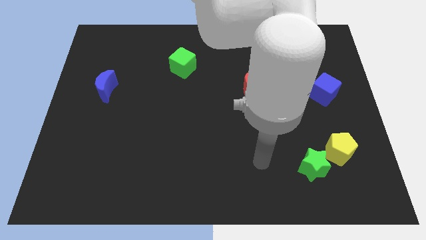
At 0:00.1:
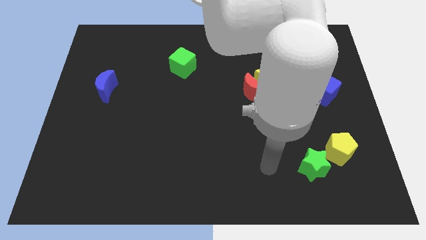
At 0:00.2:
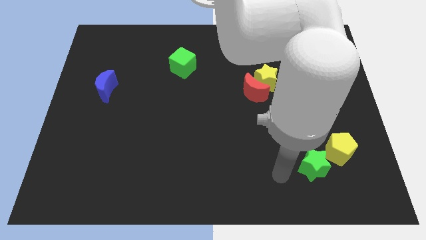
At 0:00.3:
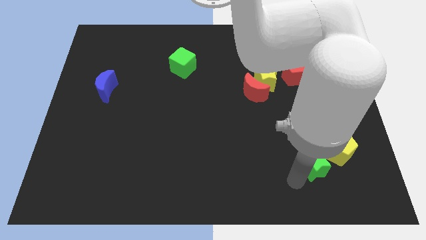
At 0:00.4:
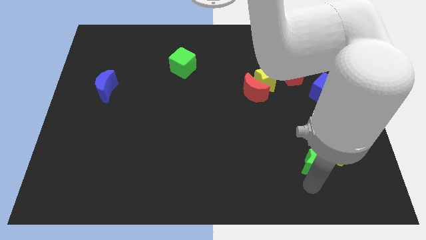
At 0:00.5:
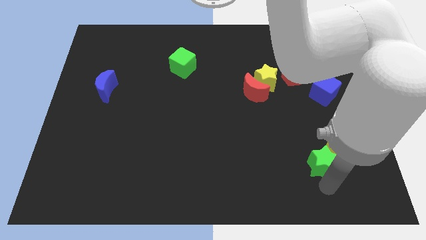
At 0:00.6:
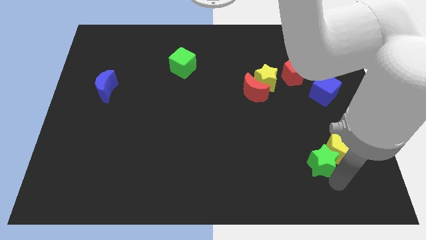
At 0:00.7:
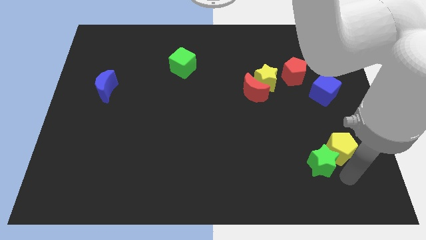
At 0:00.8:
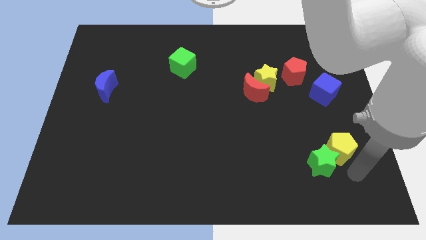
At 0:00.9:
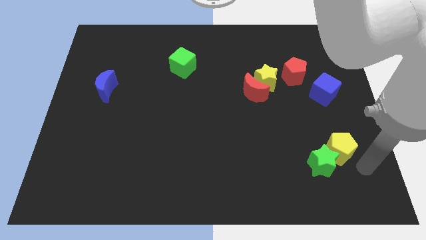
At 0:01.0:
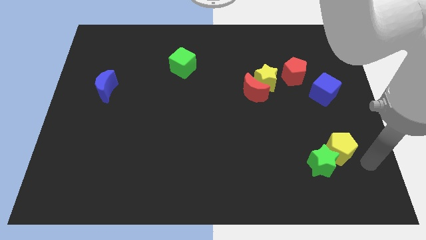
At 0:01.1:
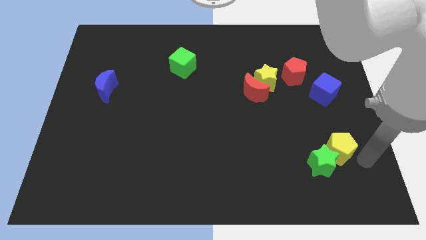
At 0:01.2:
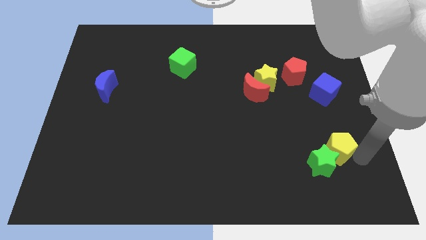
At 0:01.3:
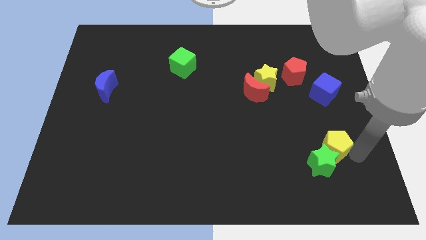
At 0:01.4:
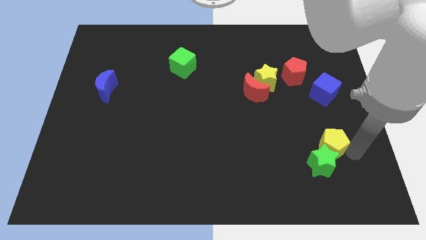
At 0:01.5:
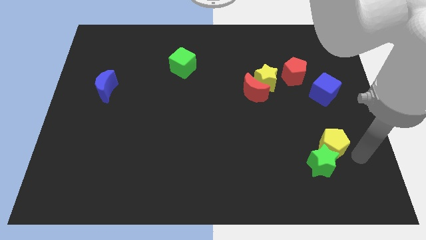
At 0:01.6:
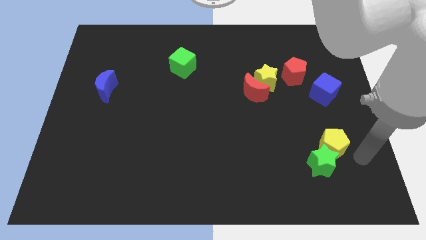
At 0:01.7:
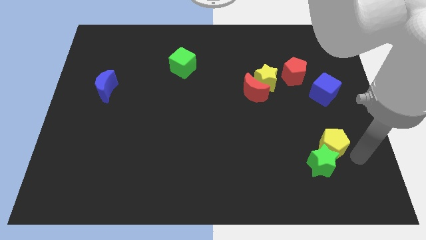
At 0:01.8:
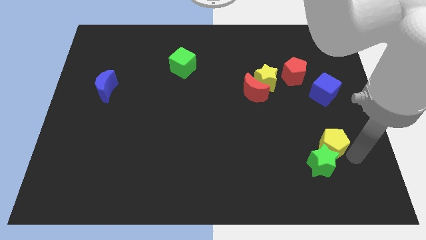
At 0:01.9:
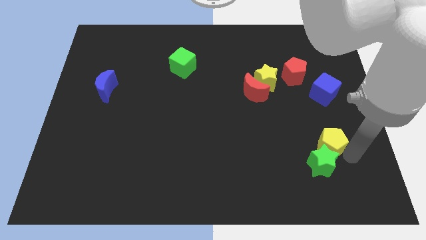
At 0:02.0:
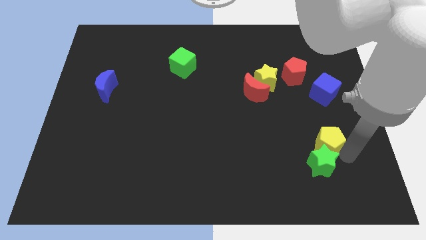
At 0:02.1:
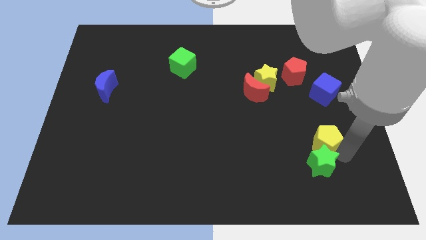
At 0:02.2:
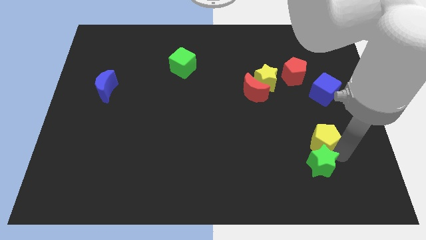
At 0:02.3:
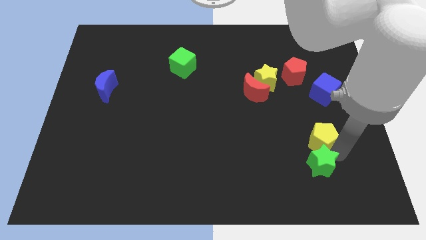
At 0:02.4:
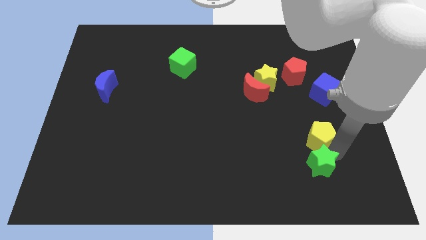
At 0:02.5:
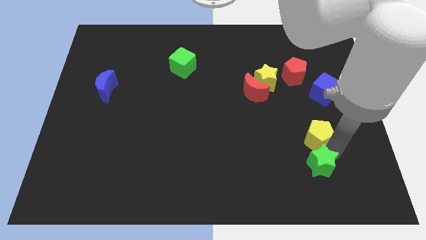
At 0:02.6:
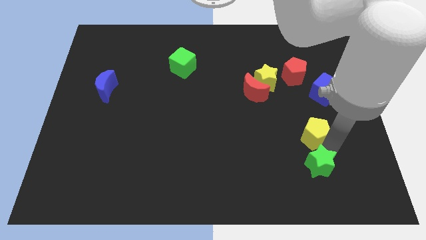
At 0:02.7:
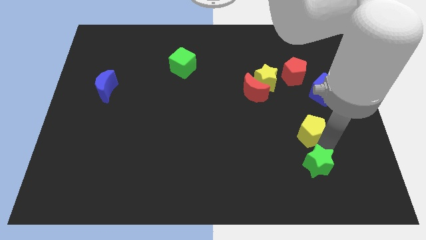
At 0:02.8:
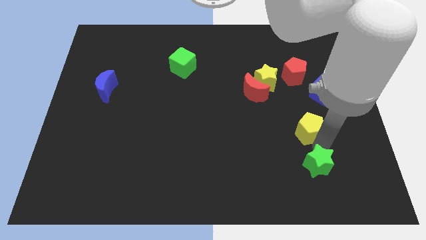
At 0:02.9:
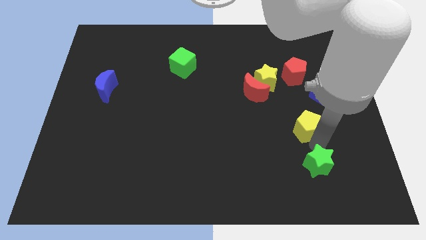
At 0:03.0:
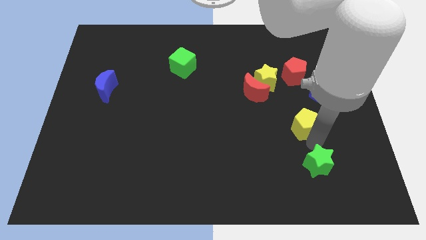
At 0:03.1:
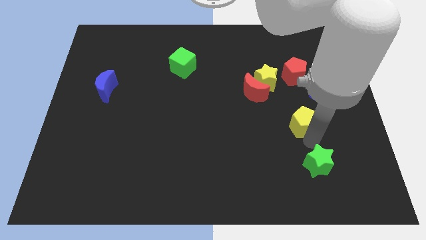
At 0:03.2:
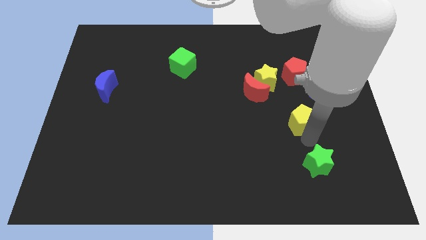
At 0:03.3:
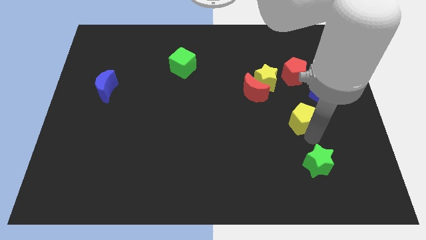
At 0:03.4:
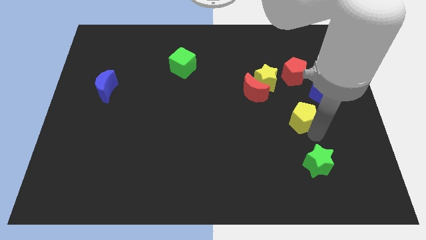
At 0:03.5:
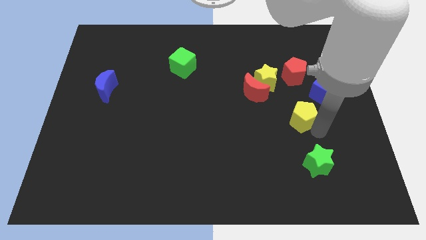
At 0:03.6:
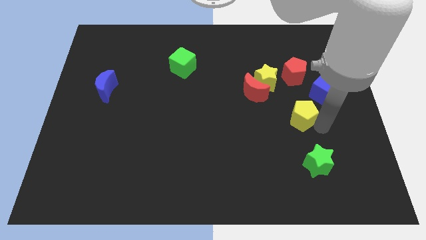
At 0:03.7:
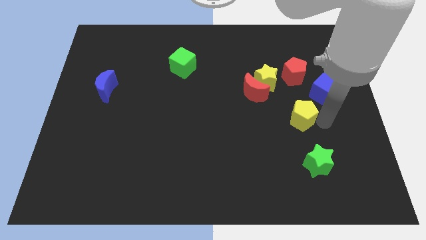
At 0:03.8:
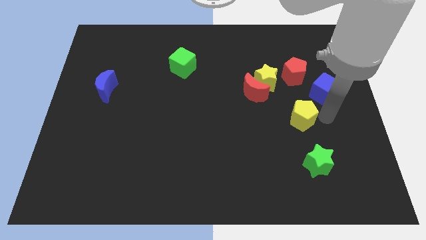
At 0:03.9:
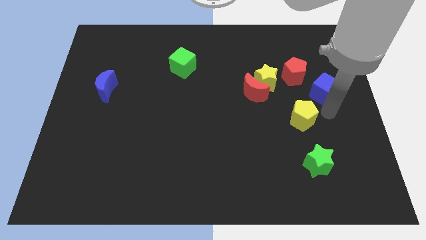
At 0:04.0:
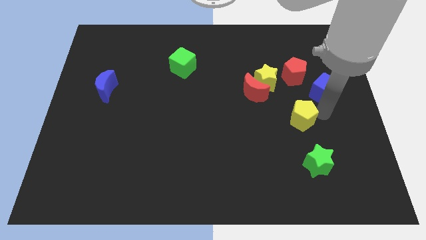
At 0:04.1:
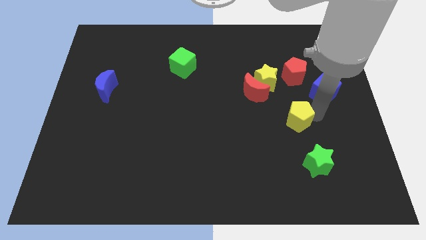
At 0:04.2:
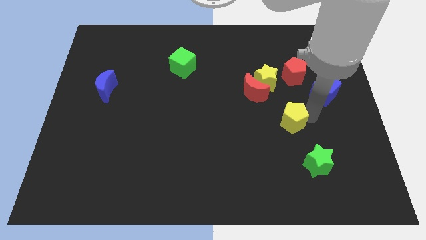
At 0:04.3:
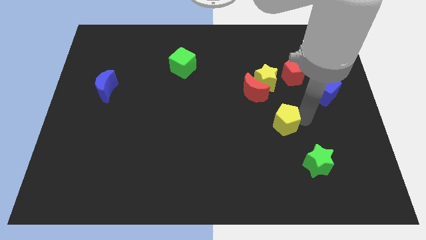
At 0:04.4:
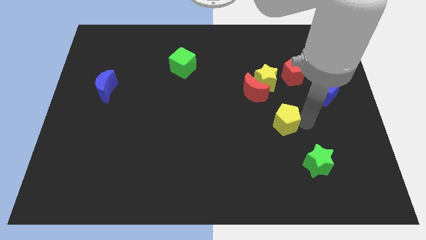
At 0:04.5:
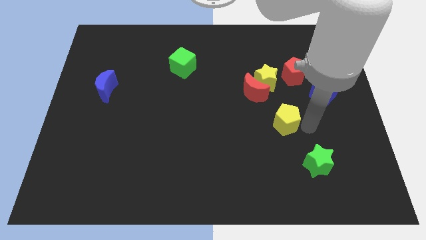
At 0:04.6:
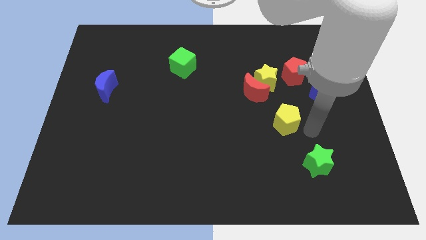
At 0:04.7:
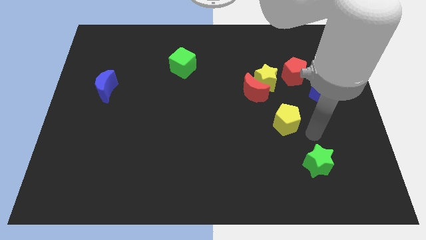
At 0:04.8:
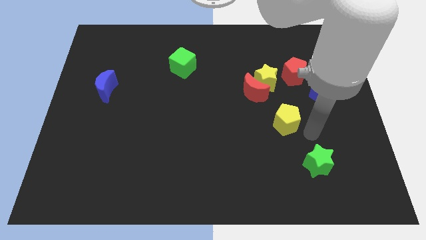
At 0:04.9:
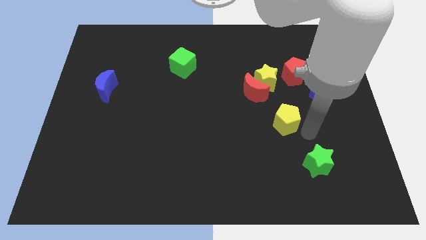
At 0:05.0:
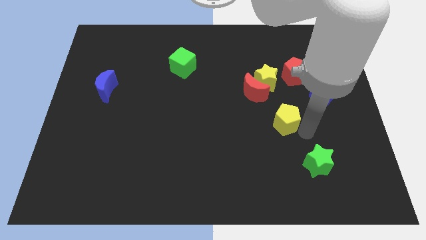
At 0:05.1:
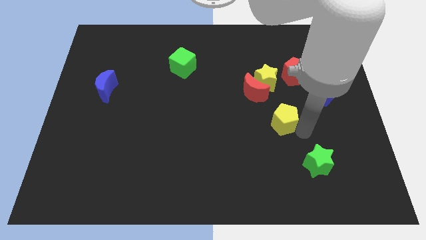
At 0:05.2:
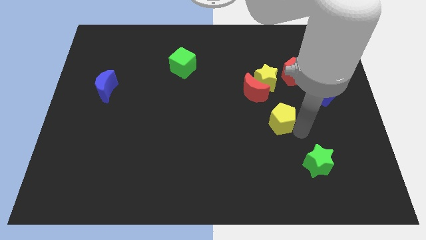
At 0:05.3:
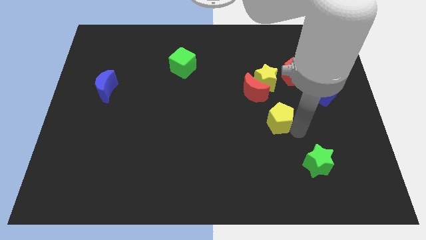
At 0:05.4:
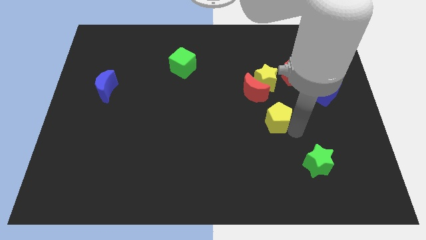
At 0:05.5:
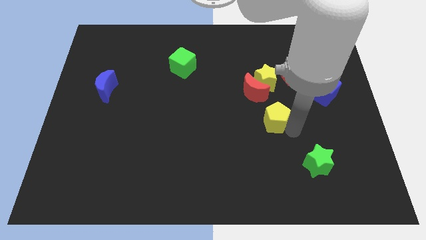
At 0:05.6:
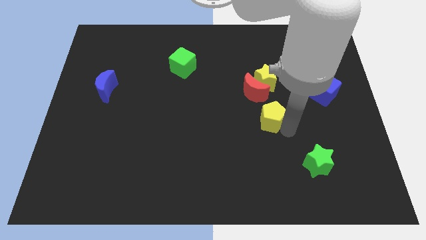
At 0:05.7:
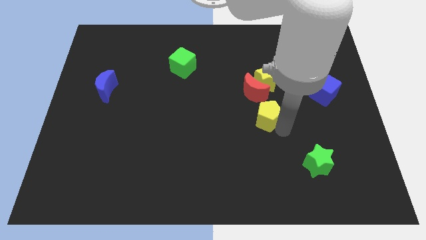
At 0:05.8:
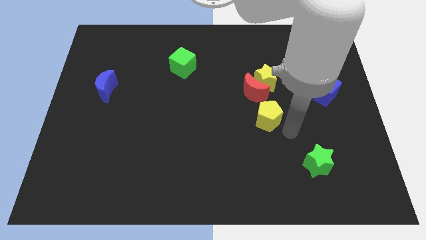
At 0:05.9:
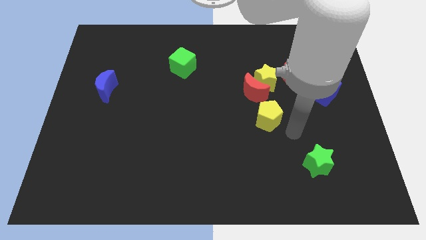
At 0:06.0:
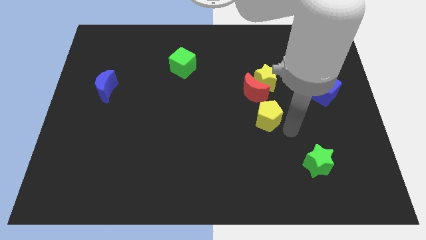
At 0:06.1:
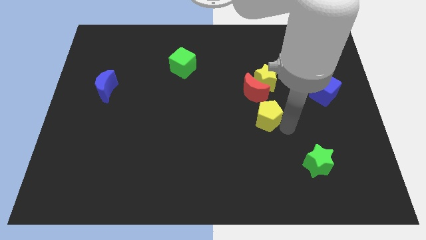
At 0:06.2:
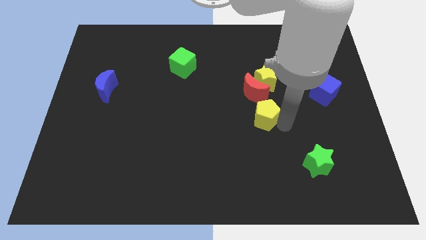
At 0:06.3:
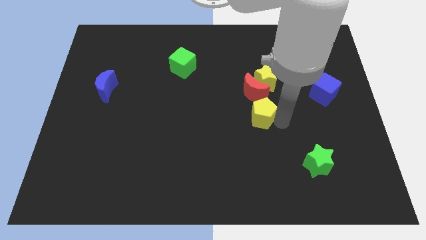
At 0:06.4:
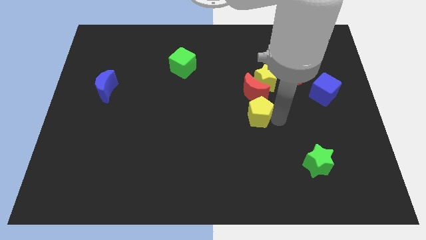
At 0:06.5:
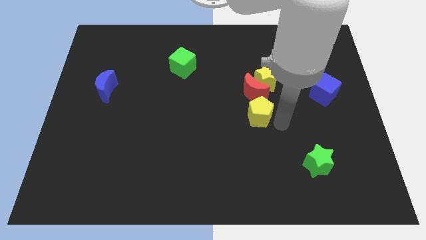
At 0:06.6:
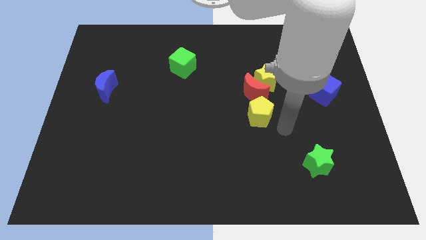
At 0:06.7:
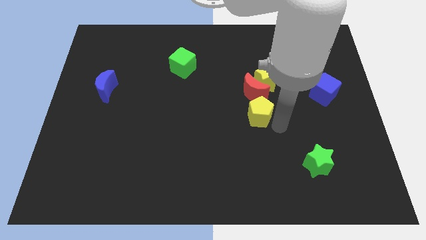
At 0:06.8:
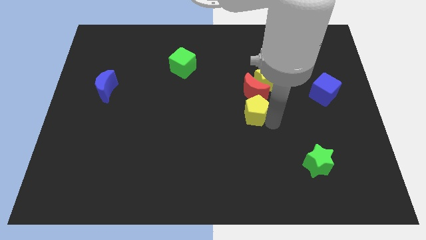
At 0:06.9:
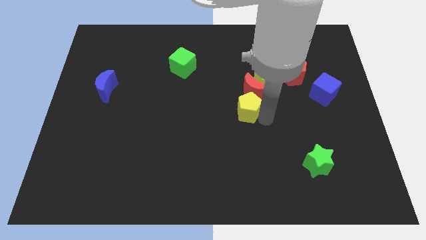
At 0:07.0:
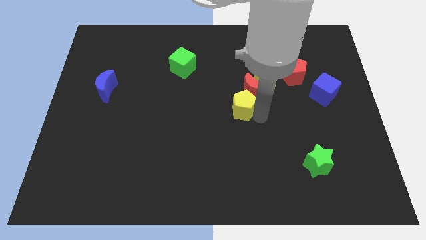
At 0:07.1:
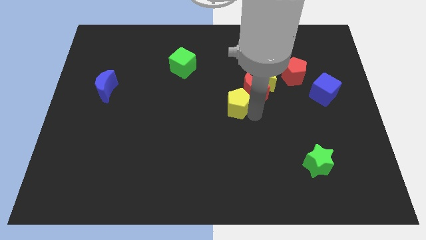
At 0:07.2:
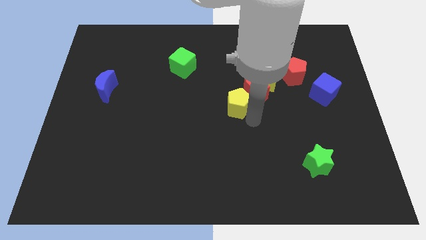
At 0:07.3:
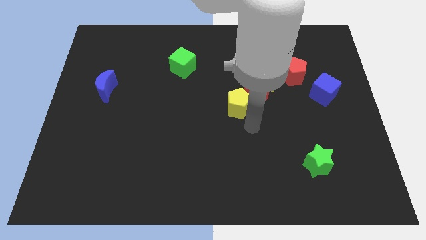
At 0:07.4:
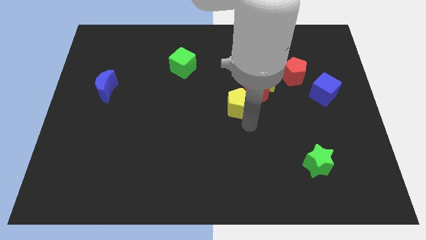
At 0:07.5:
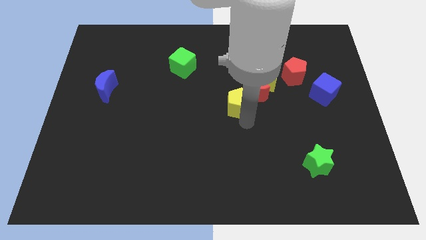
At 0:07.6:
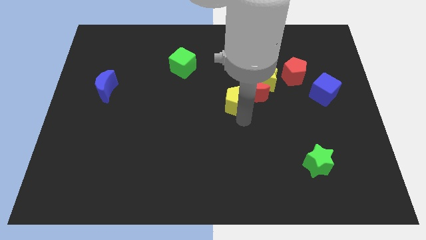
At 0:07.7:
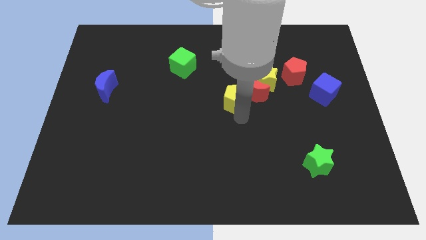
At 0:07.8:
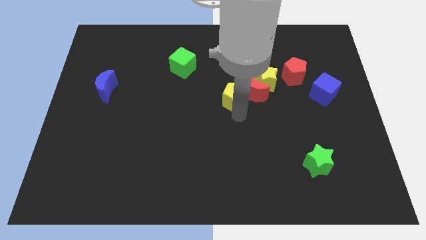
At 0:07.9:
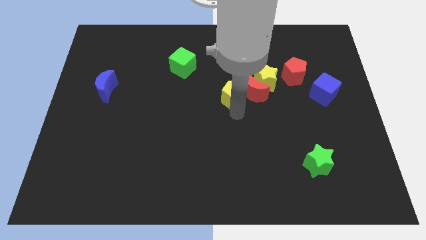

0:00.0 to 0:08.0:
slide the yellow pentagon to the left side of the yellow star
